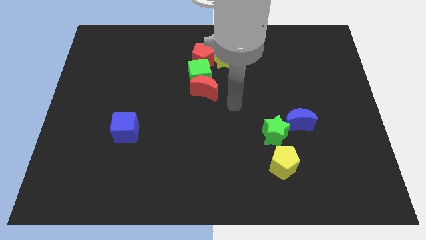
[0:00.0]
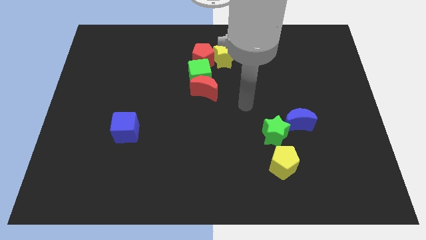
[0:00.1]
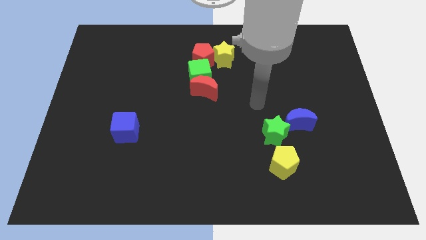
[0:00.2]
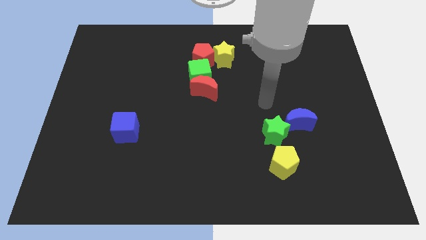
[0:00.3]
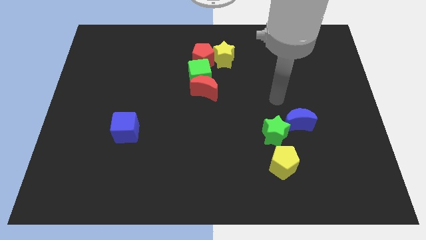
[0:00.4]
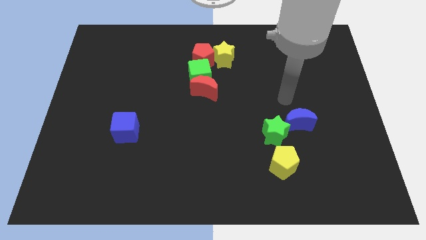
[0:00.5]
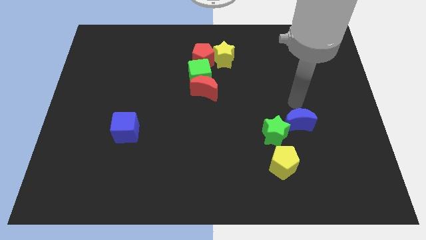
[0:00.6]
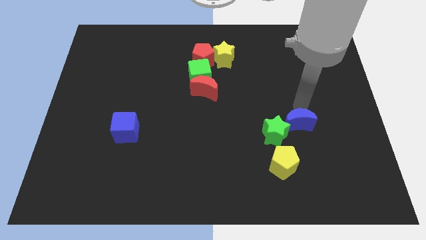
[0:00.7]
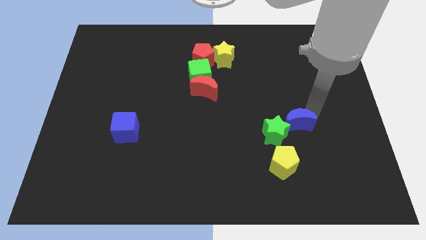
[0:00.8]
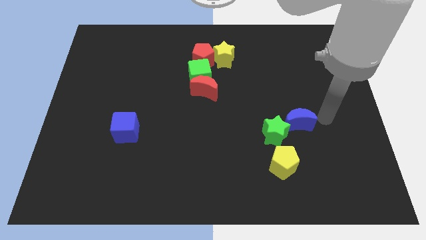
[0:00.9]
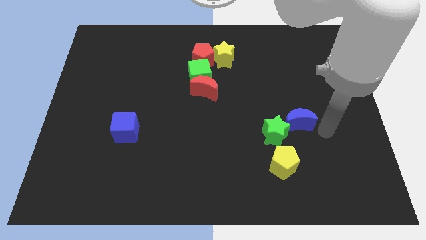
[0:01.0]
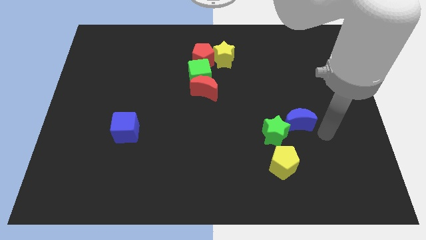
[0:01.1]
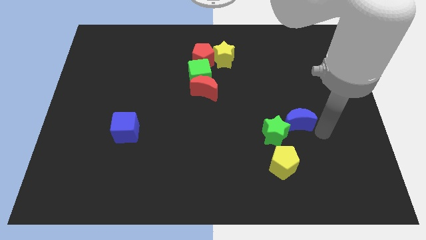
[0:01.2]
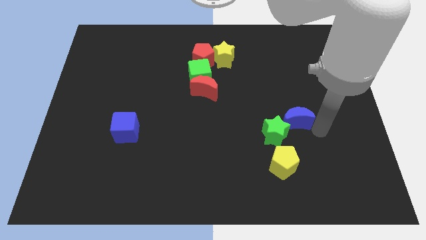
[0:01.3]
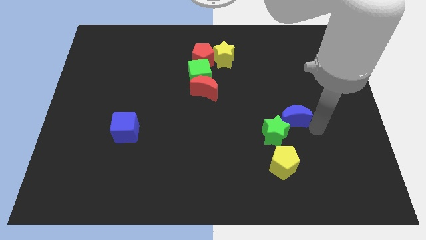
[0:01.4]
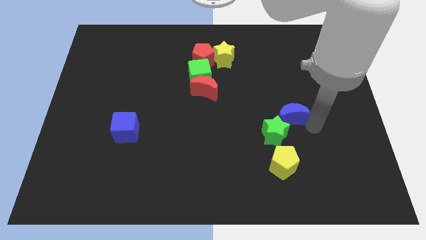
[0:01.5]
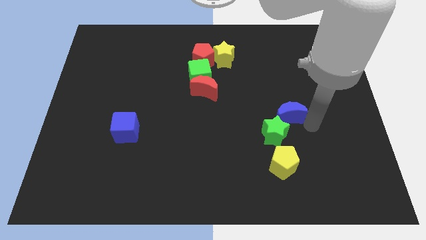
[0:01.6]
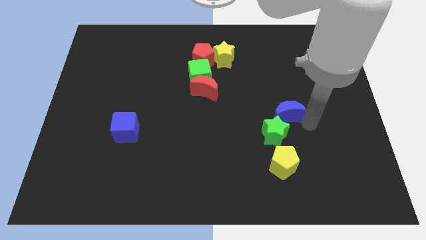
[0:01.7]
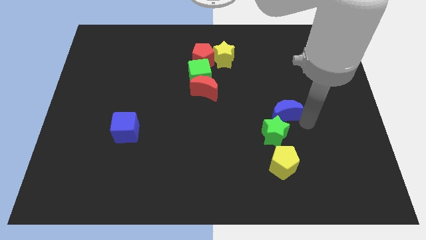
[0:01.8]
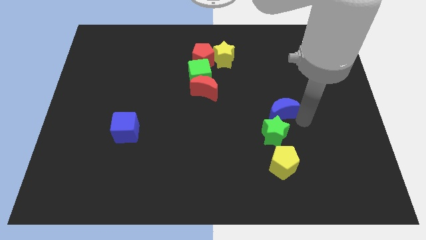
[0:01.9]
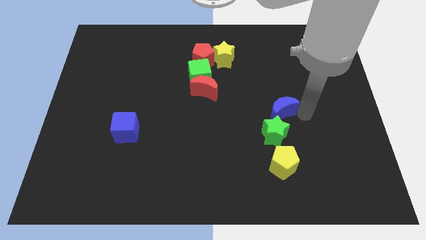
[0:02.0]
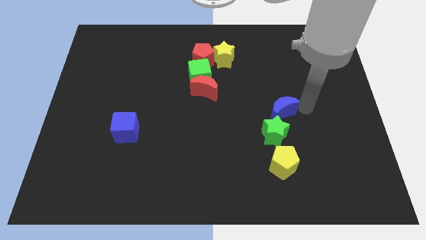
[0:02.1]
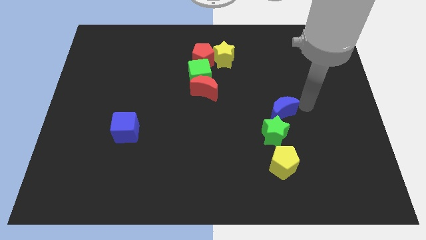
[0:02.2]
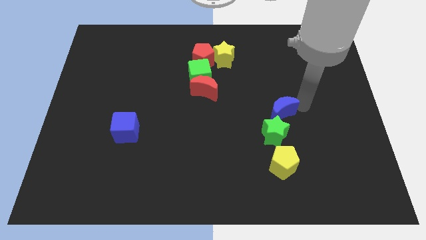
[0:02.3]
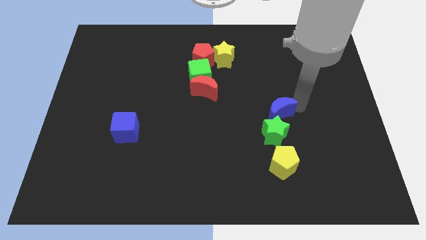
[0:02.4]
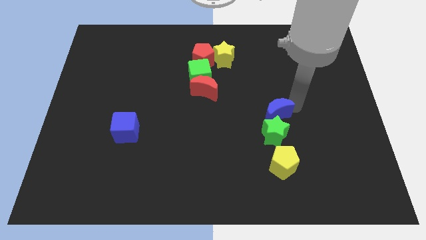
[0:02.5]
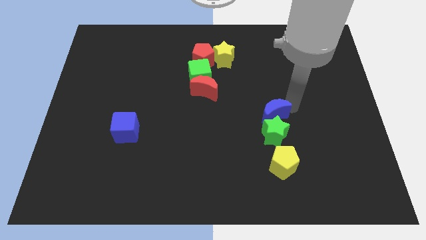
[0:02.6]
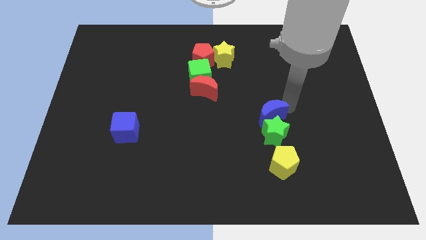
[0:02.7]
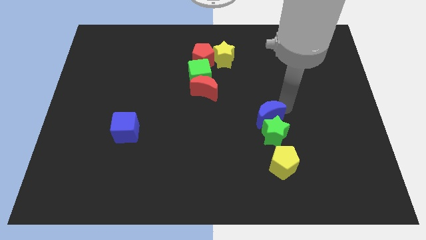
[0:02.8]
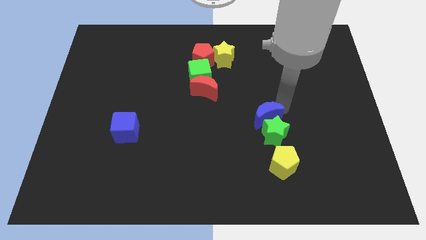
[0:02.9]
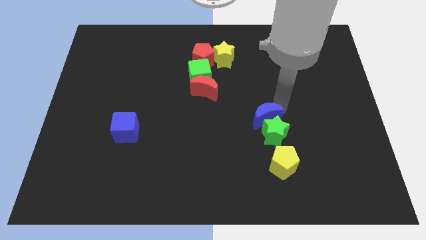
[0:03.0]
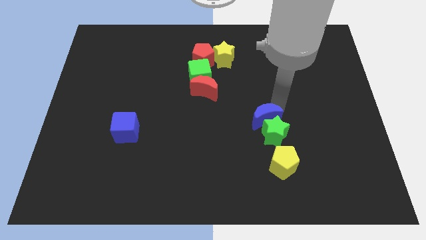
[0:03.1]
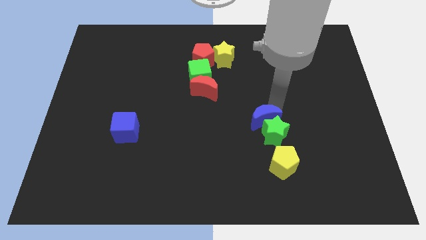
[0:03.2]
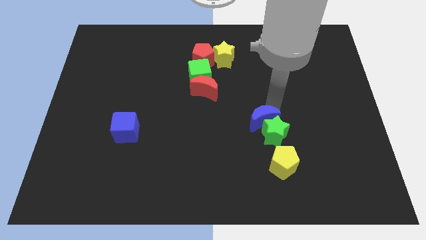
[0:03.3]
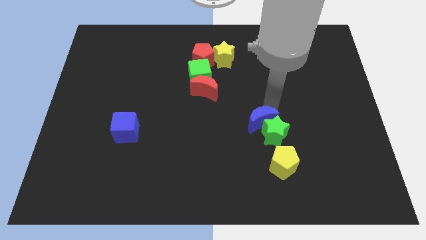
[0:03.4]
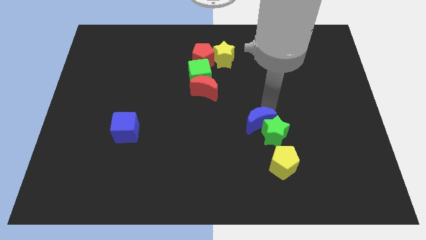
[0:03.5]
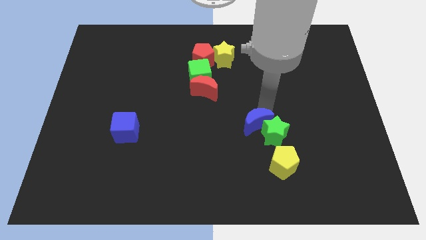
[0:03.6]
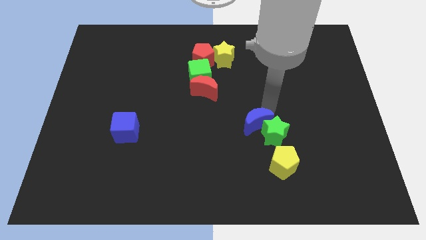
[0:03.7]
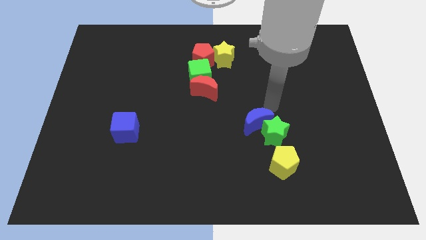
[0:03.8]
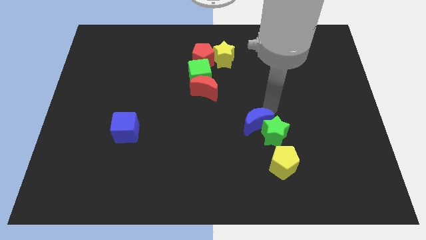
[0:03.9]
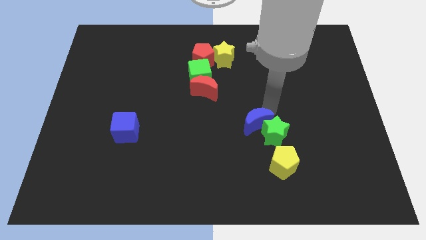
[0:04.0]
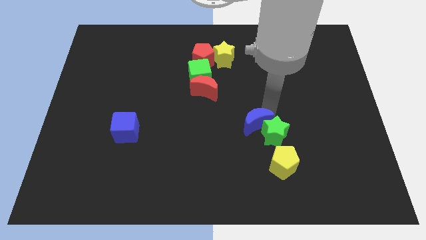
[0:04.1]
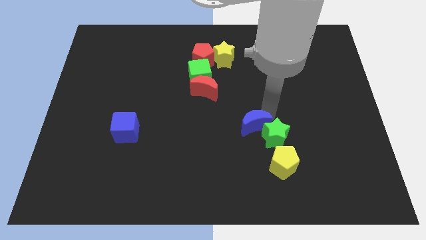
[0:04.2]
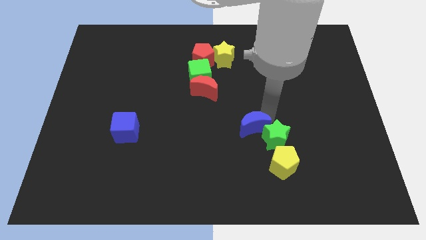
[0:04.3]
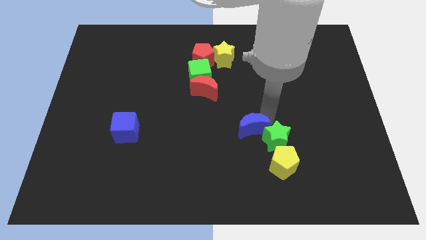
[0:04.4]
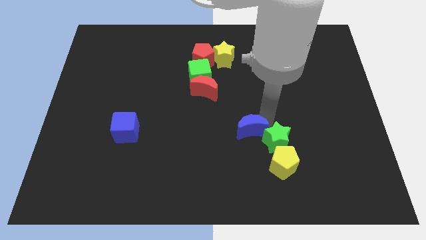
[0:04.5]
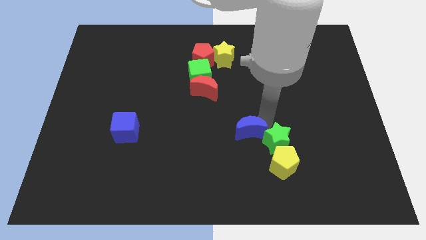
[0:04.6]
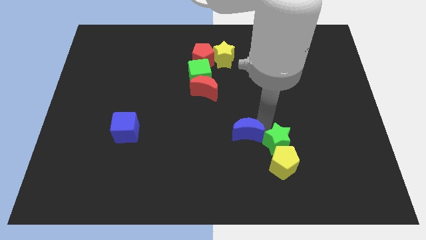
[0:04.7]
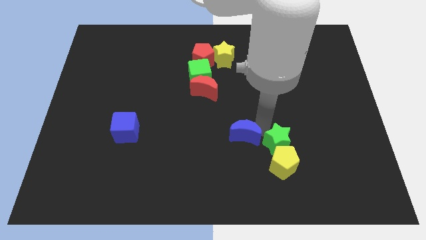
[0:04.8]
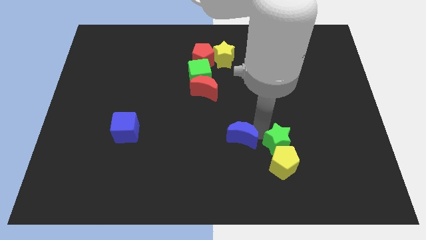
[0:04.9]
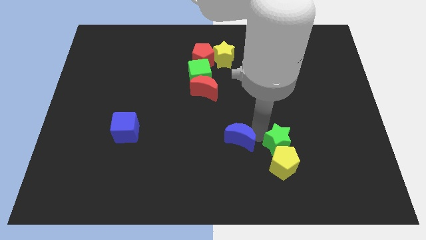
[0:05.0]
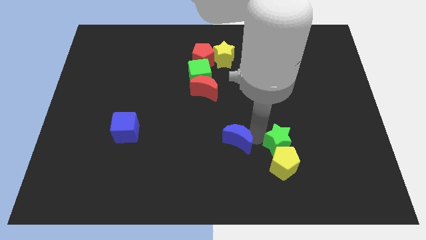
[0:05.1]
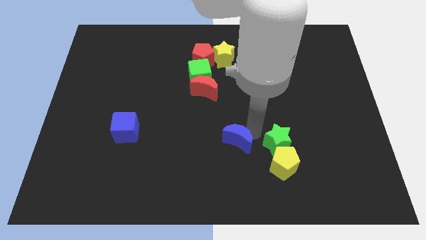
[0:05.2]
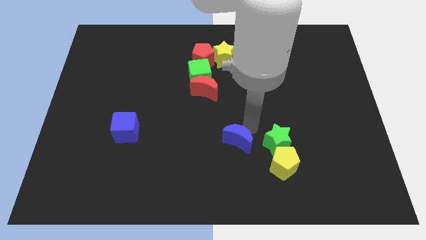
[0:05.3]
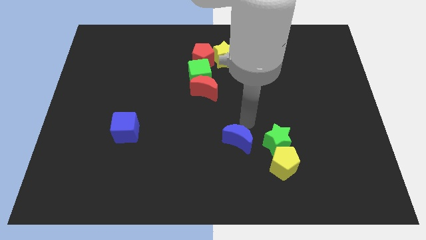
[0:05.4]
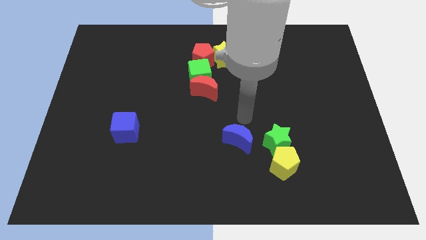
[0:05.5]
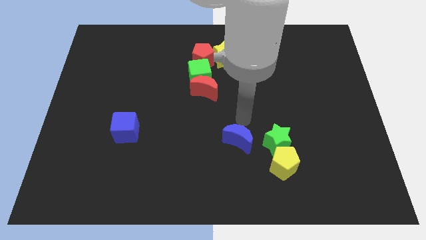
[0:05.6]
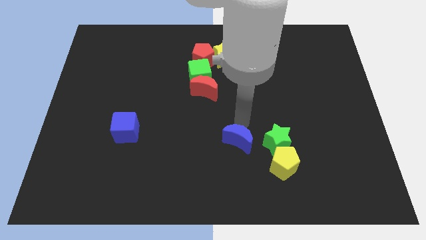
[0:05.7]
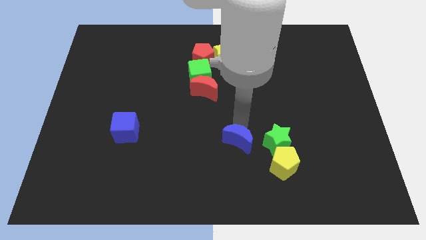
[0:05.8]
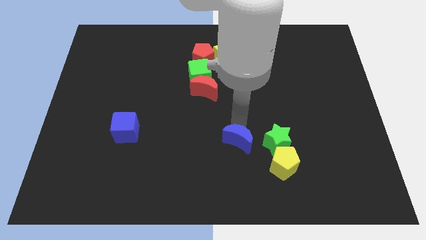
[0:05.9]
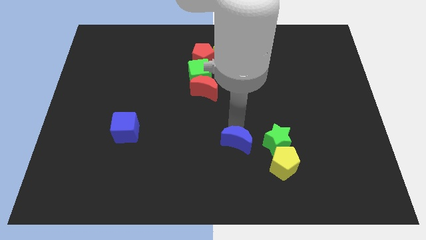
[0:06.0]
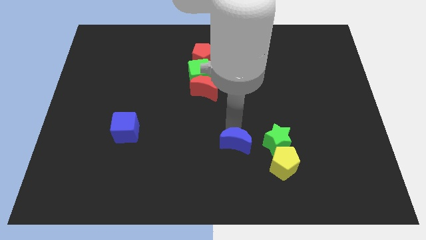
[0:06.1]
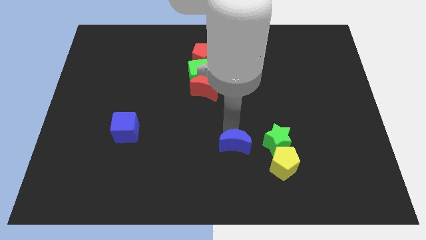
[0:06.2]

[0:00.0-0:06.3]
push the blue moon to the left of the yellow pentagon
